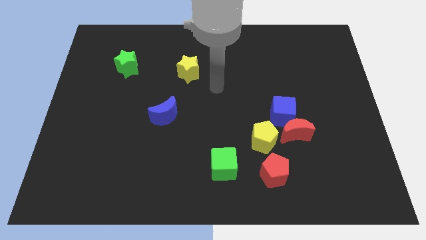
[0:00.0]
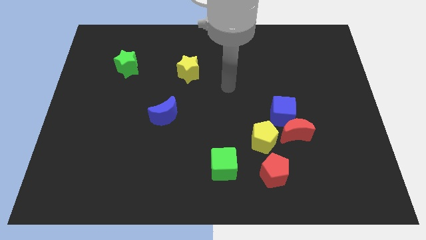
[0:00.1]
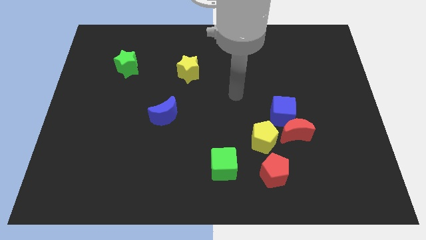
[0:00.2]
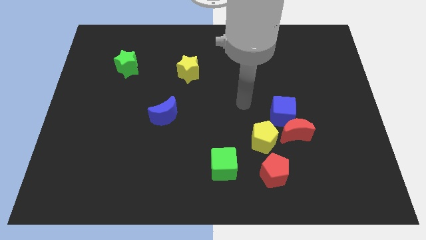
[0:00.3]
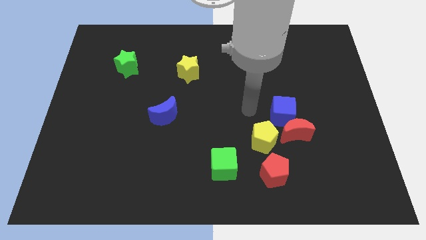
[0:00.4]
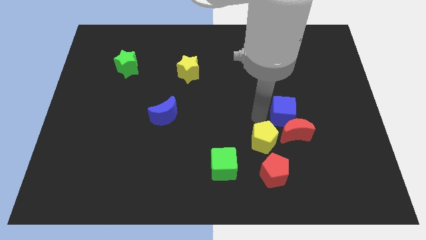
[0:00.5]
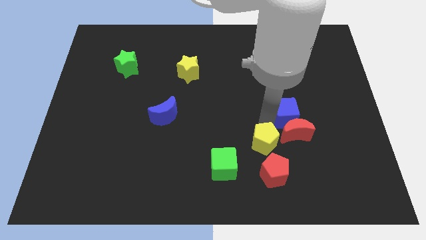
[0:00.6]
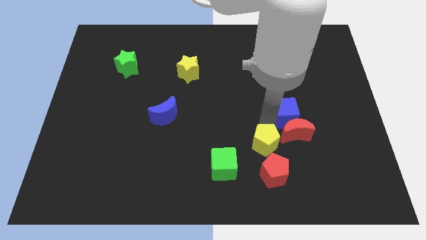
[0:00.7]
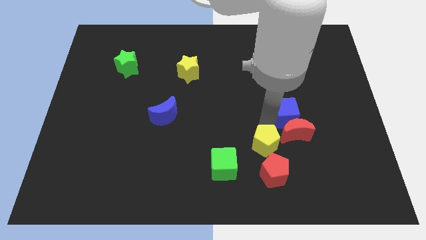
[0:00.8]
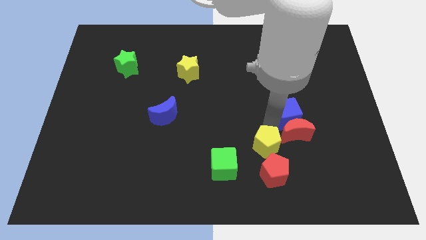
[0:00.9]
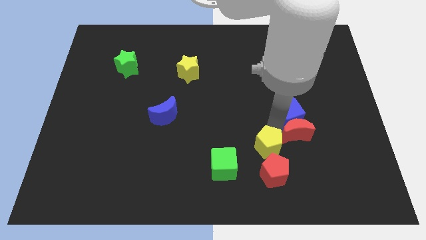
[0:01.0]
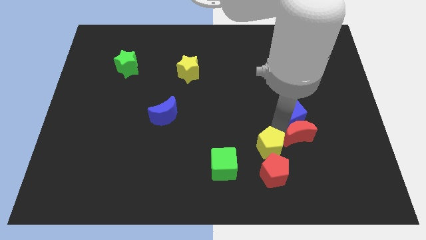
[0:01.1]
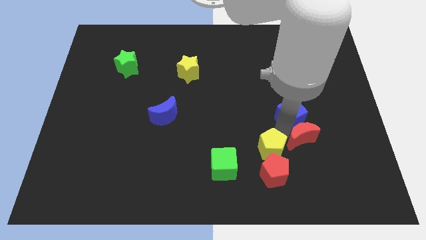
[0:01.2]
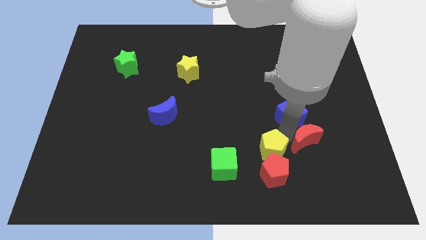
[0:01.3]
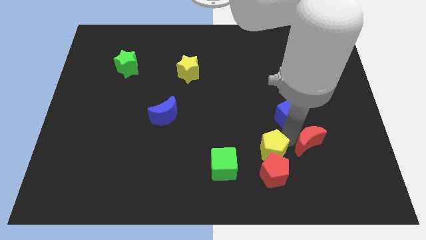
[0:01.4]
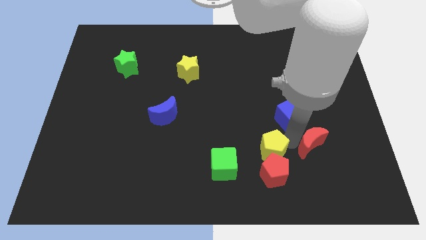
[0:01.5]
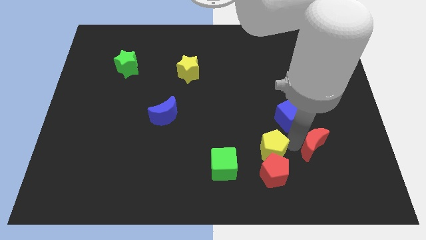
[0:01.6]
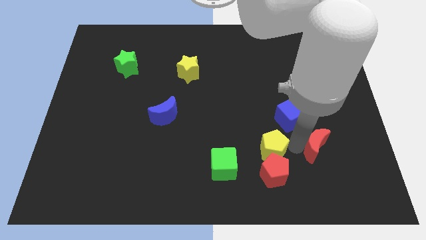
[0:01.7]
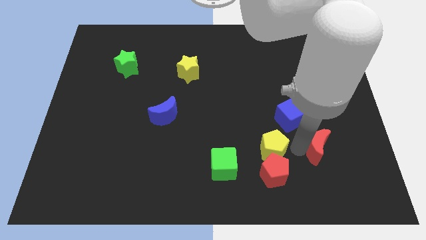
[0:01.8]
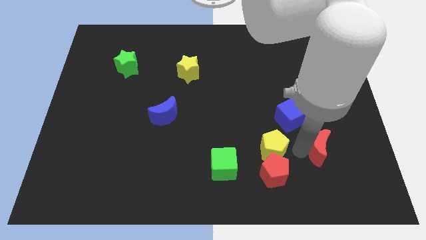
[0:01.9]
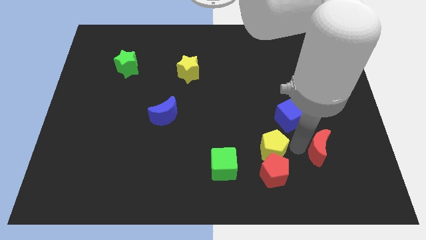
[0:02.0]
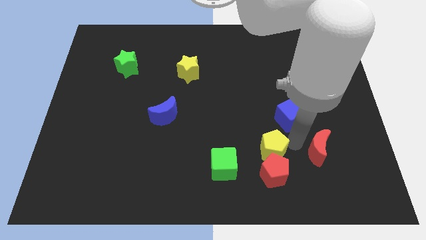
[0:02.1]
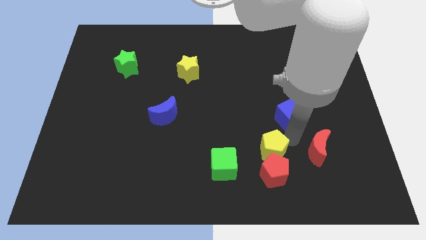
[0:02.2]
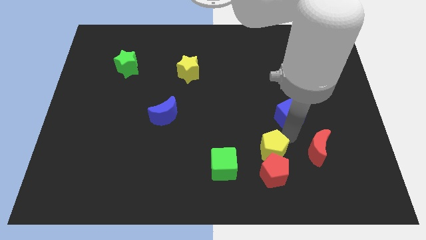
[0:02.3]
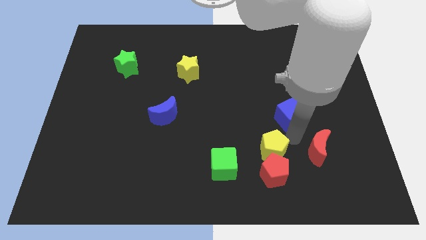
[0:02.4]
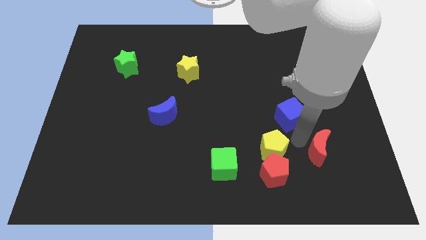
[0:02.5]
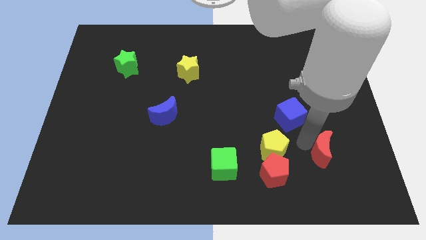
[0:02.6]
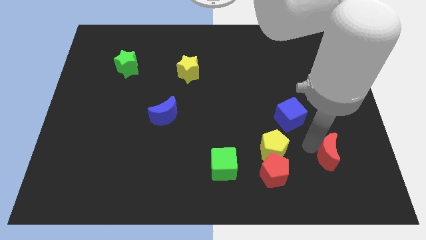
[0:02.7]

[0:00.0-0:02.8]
pull the red moon apart from the blue cube and yellow pentagon

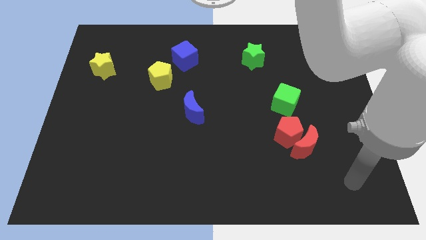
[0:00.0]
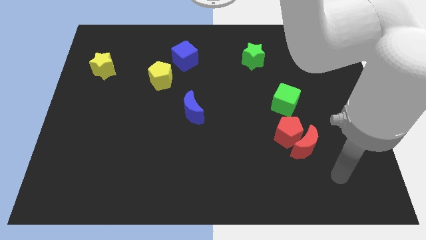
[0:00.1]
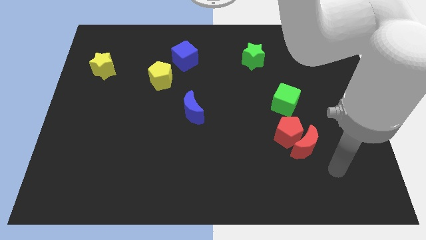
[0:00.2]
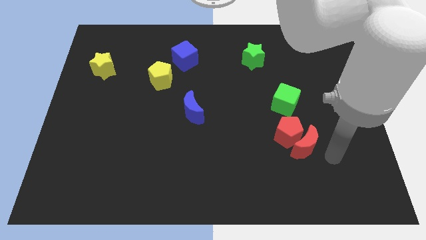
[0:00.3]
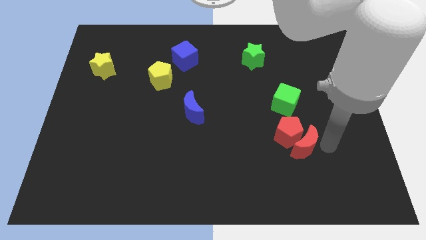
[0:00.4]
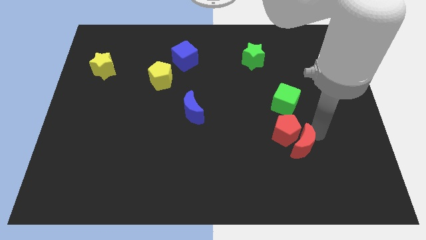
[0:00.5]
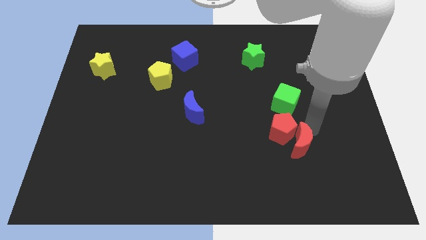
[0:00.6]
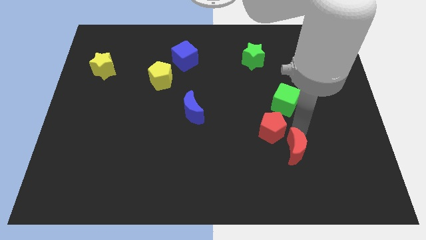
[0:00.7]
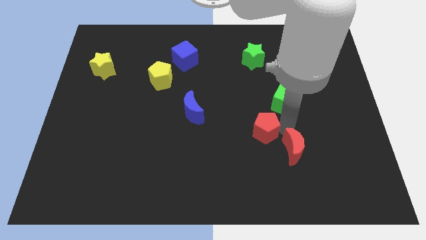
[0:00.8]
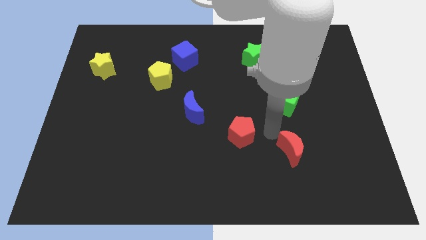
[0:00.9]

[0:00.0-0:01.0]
pull the red moon apart from the red pentagon

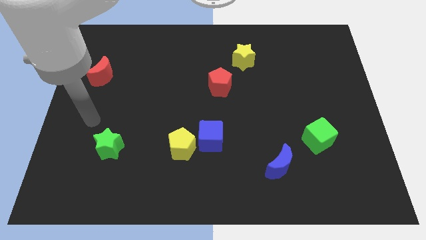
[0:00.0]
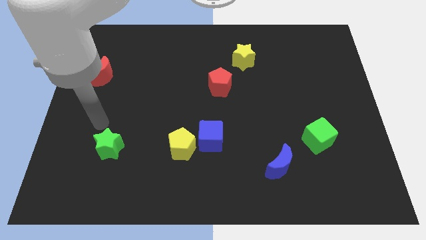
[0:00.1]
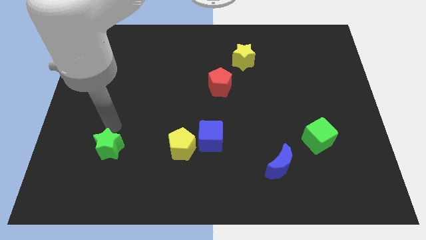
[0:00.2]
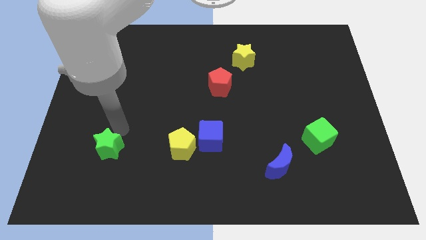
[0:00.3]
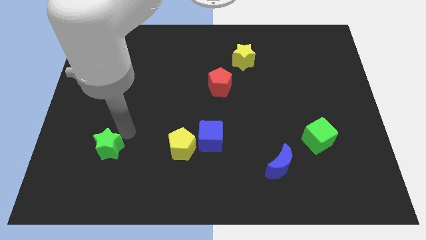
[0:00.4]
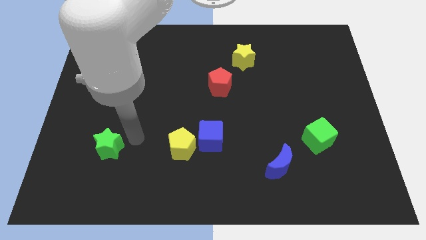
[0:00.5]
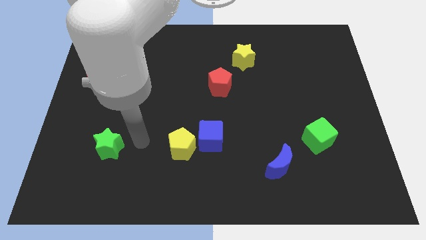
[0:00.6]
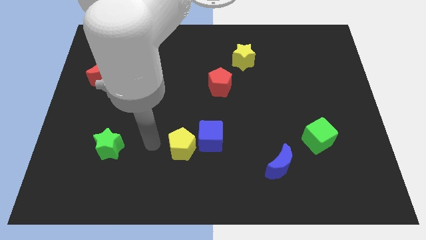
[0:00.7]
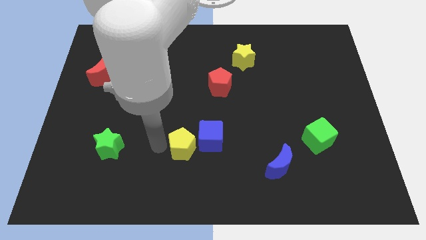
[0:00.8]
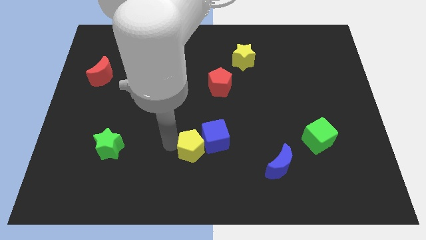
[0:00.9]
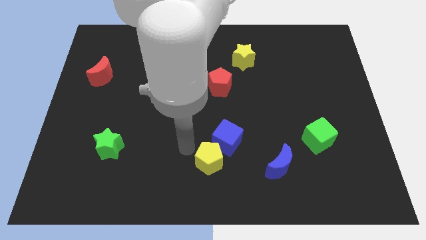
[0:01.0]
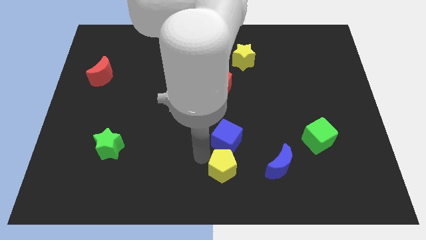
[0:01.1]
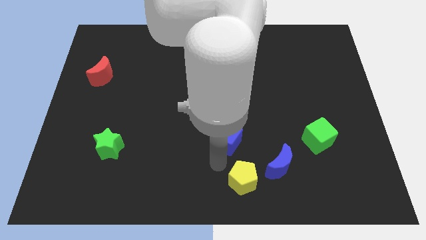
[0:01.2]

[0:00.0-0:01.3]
separate the blue cube from the yellow pentagon

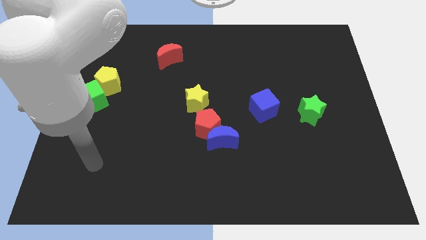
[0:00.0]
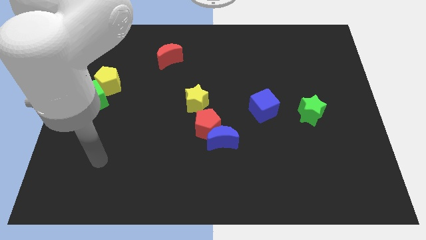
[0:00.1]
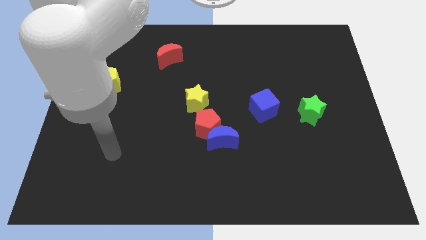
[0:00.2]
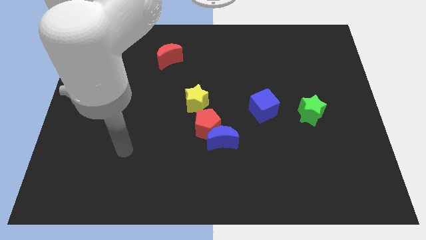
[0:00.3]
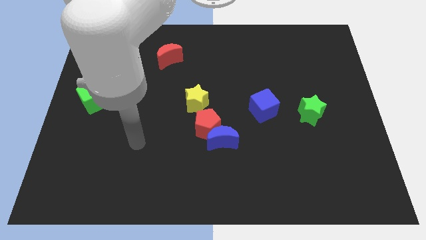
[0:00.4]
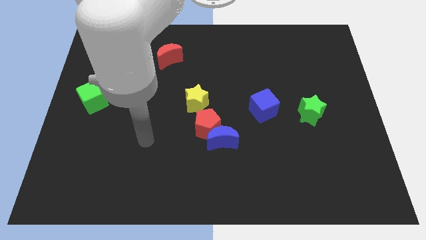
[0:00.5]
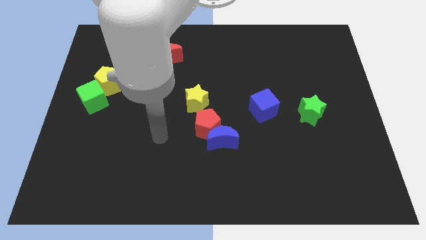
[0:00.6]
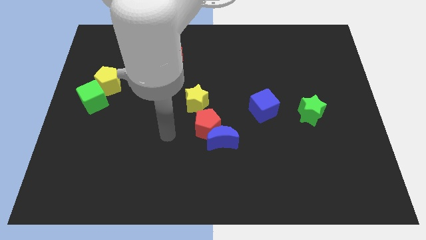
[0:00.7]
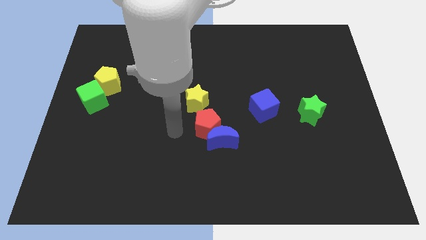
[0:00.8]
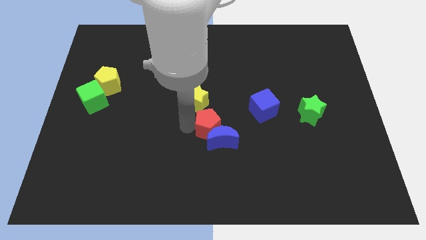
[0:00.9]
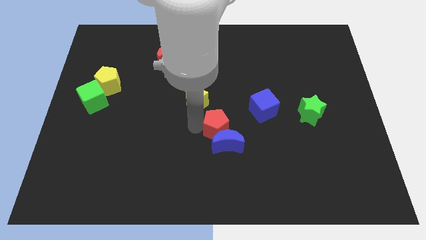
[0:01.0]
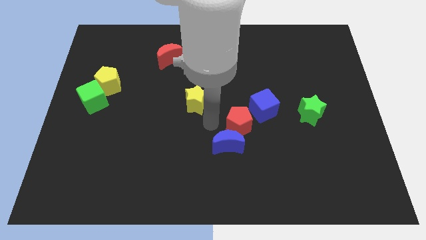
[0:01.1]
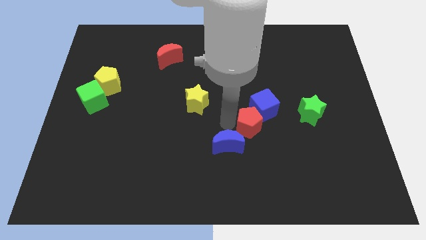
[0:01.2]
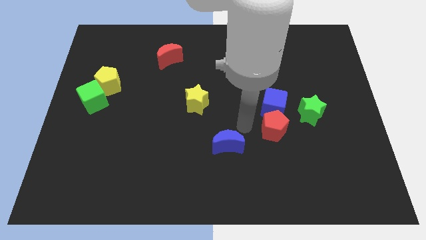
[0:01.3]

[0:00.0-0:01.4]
pull the blue moon apart from the red pentagon

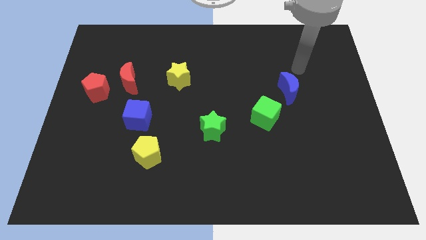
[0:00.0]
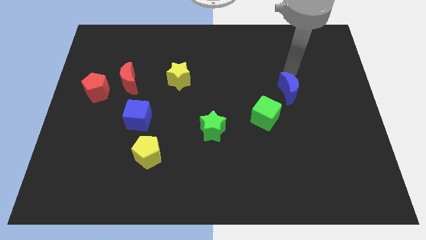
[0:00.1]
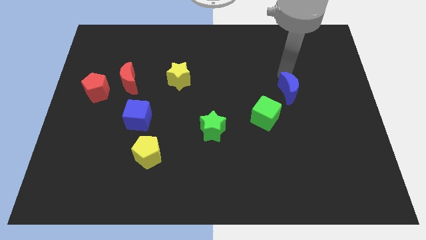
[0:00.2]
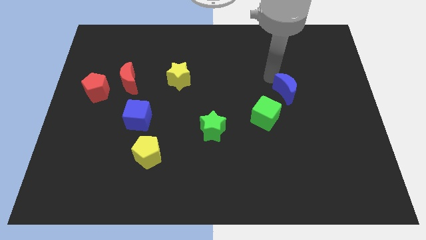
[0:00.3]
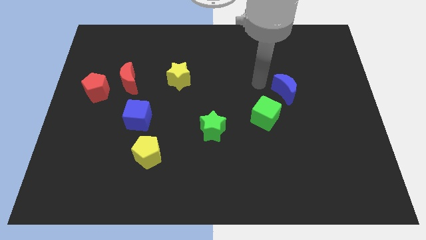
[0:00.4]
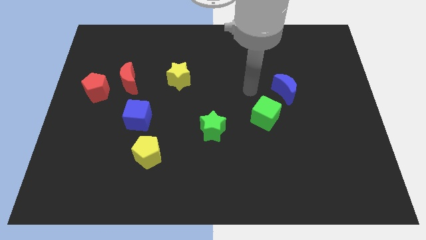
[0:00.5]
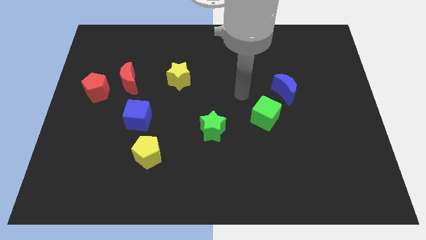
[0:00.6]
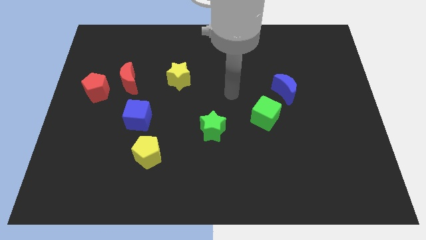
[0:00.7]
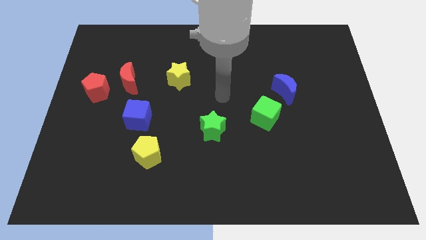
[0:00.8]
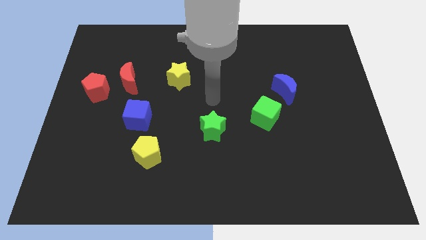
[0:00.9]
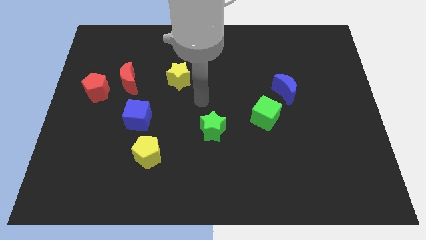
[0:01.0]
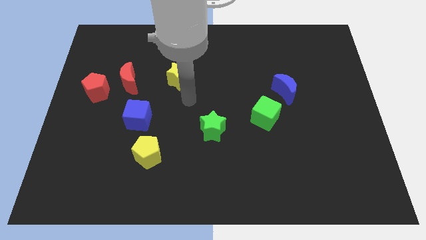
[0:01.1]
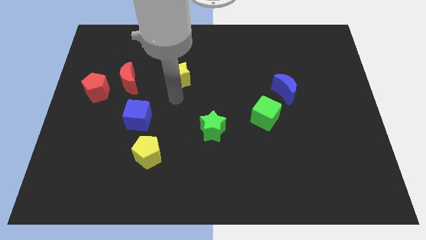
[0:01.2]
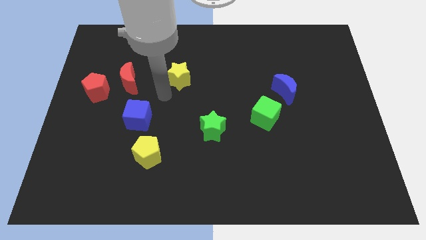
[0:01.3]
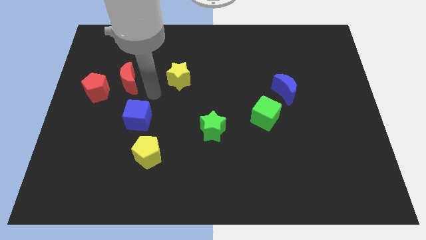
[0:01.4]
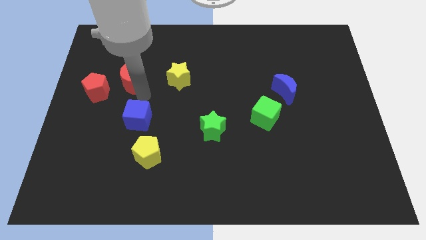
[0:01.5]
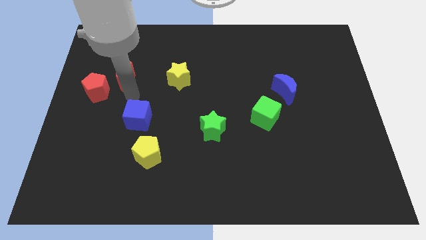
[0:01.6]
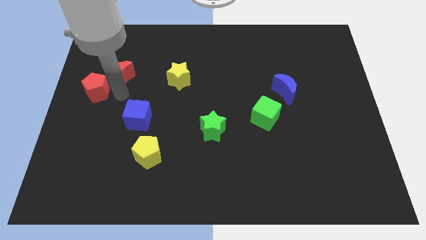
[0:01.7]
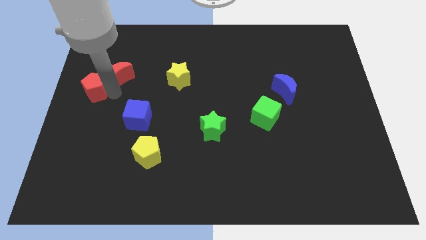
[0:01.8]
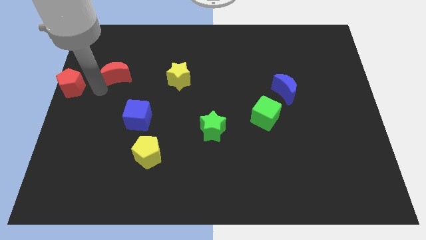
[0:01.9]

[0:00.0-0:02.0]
separate the red moon from the red pentagon

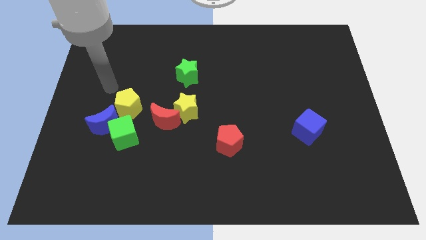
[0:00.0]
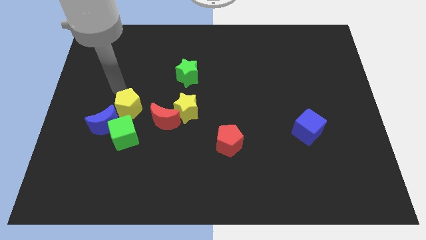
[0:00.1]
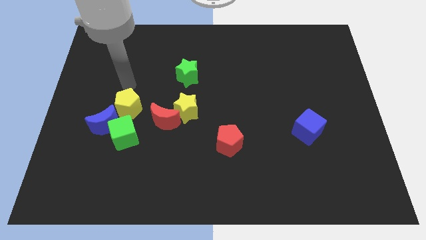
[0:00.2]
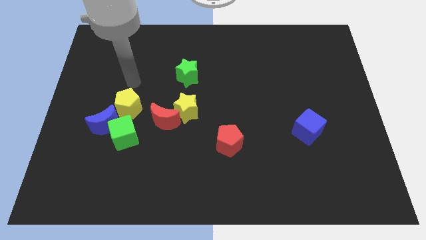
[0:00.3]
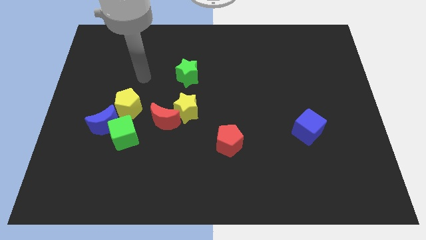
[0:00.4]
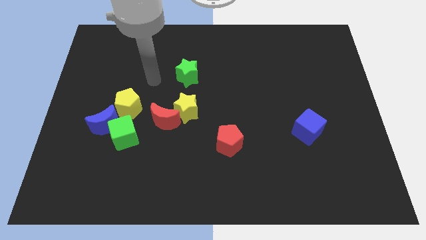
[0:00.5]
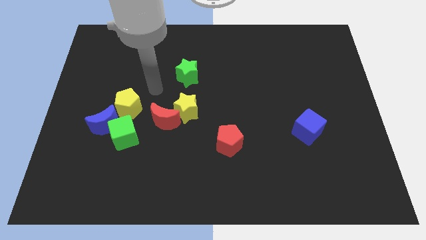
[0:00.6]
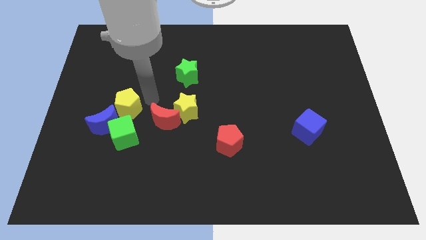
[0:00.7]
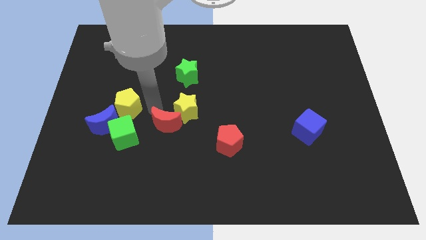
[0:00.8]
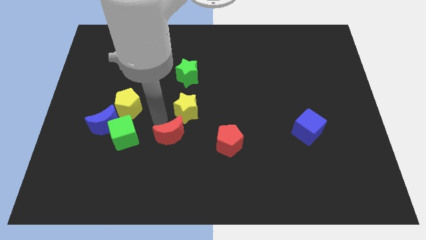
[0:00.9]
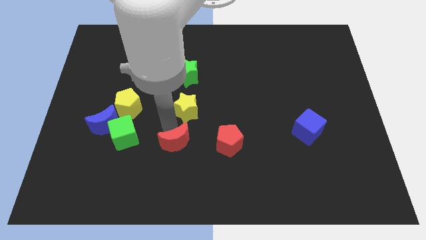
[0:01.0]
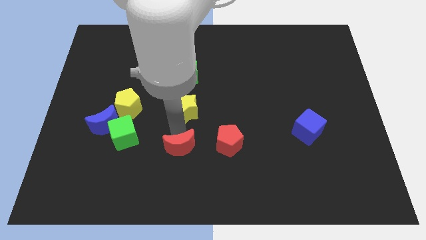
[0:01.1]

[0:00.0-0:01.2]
pull the yellow star apart from the red moon
